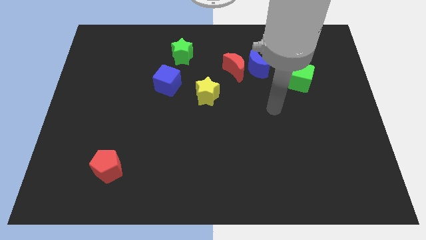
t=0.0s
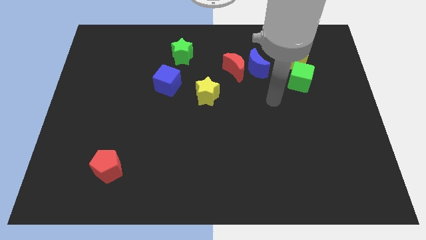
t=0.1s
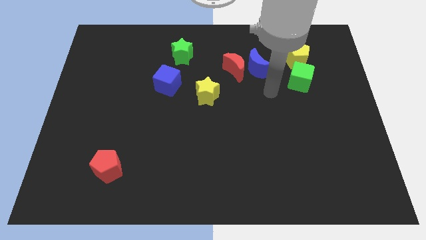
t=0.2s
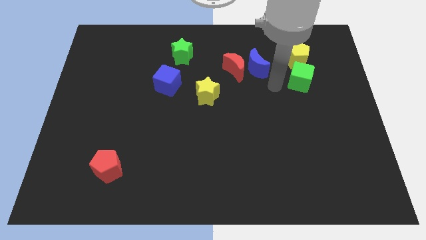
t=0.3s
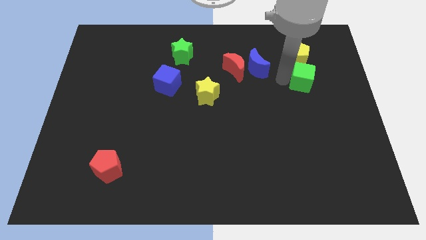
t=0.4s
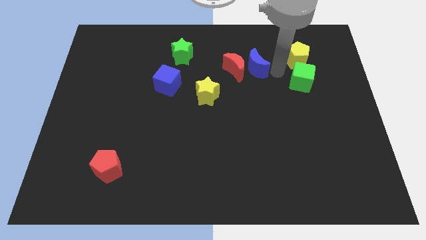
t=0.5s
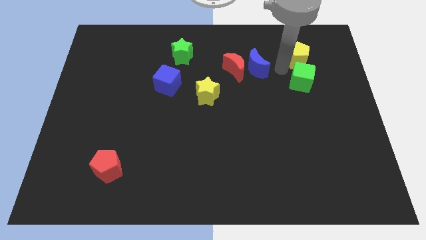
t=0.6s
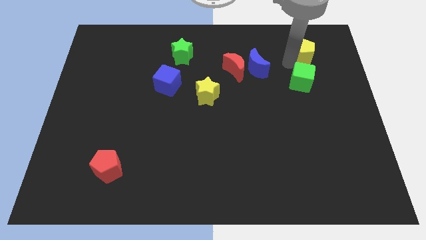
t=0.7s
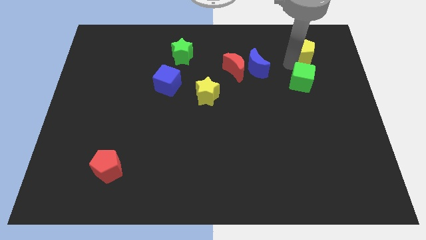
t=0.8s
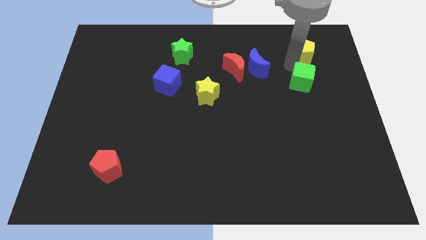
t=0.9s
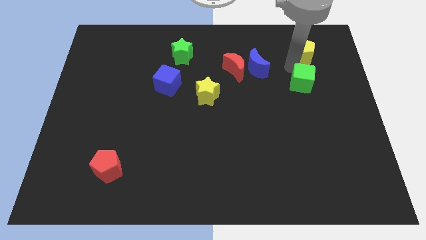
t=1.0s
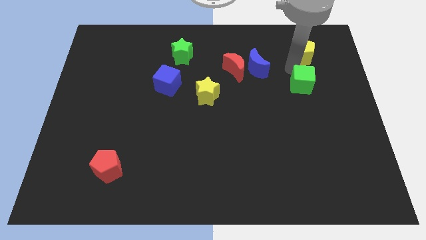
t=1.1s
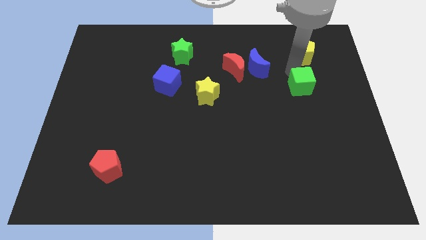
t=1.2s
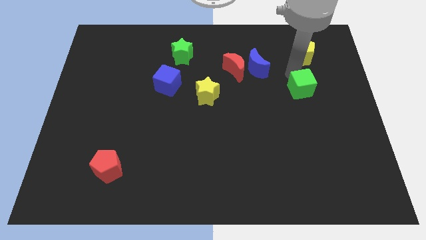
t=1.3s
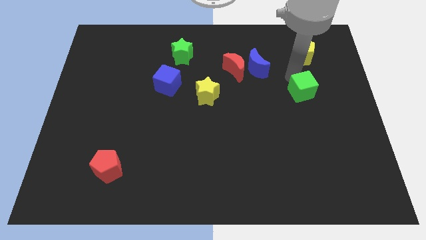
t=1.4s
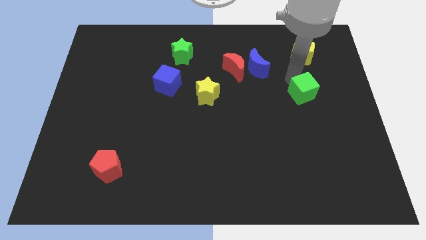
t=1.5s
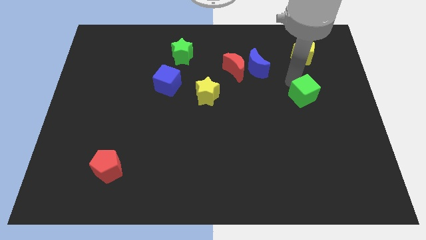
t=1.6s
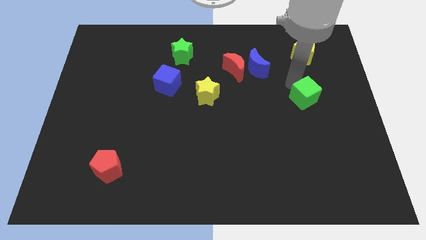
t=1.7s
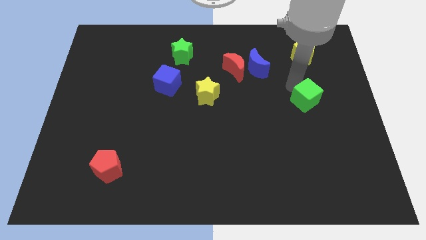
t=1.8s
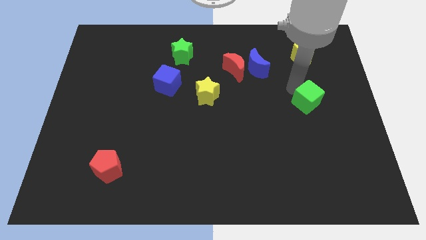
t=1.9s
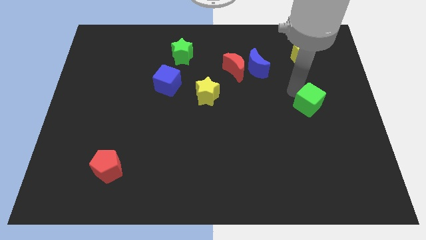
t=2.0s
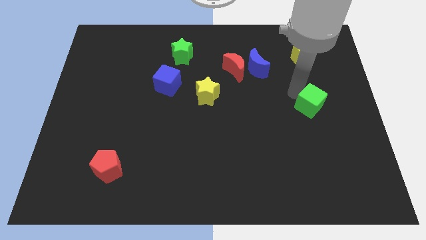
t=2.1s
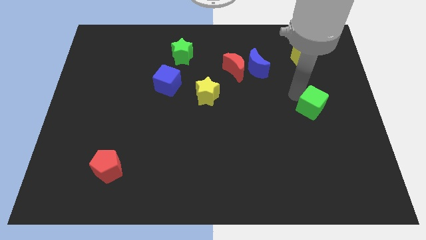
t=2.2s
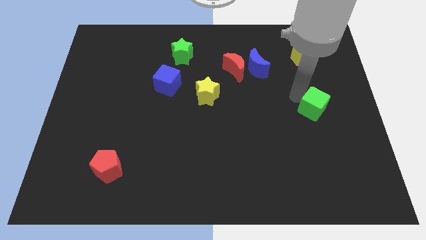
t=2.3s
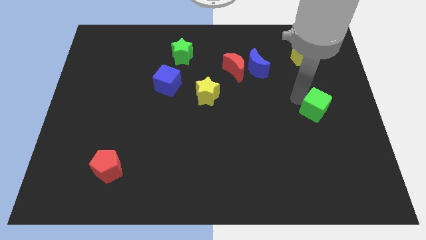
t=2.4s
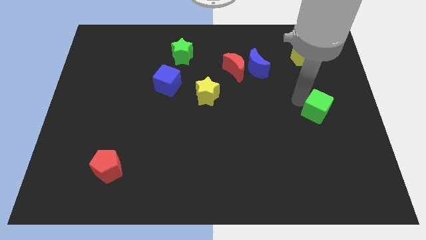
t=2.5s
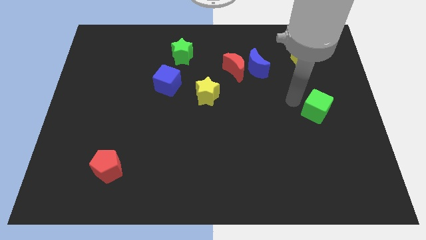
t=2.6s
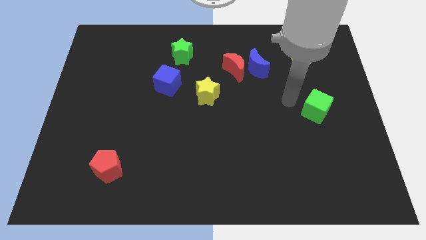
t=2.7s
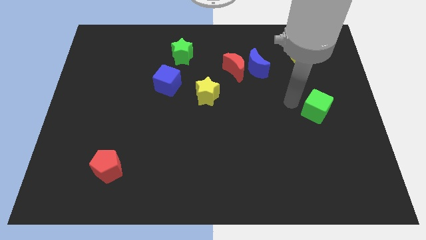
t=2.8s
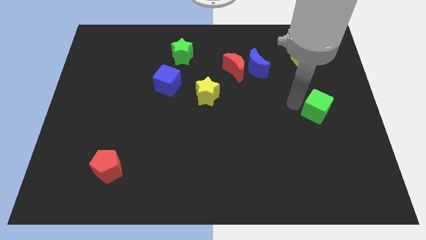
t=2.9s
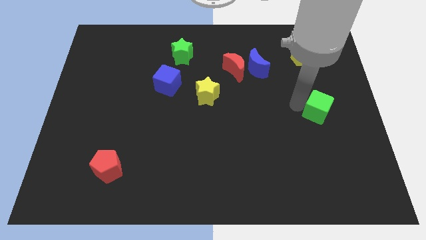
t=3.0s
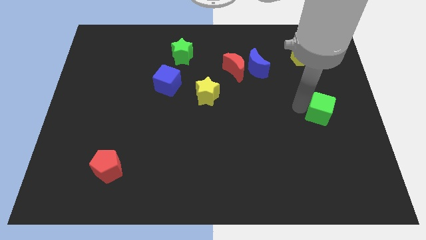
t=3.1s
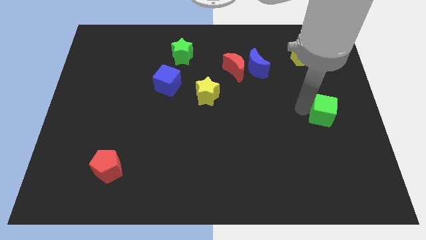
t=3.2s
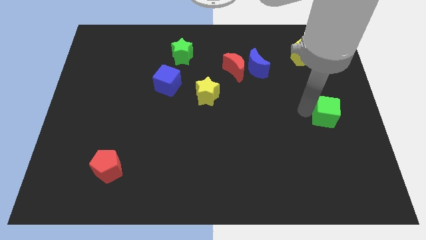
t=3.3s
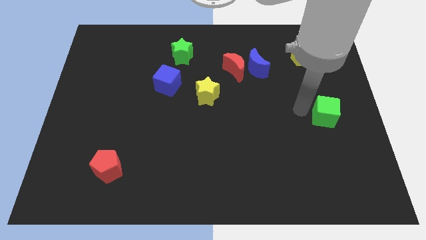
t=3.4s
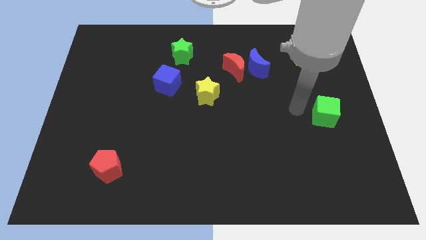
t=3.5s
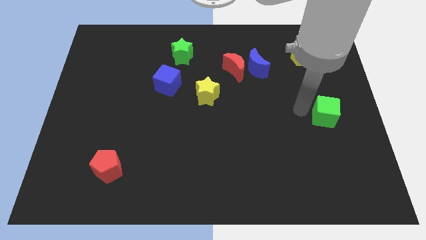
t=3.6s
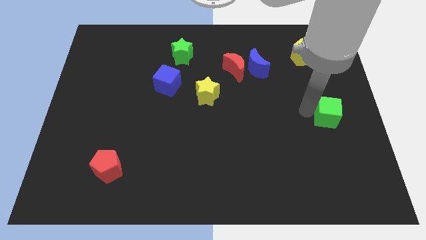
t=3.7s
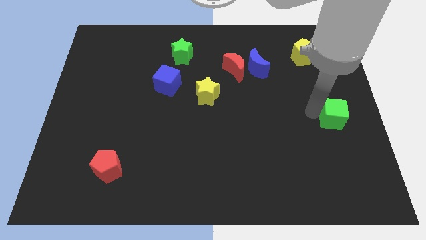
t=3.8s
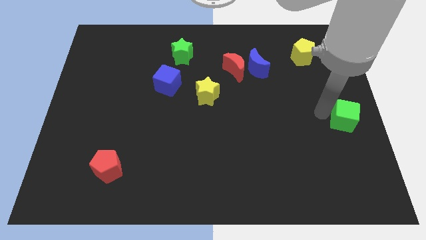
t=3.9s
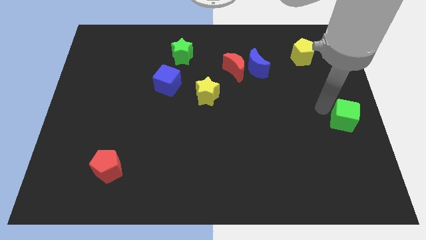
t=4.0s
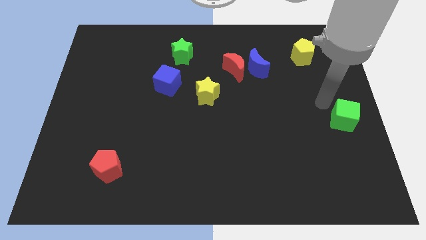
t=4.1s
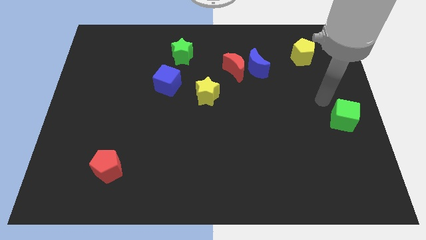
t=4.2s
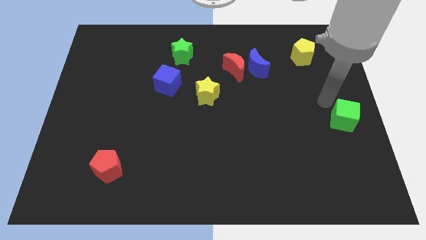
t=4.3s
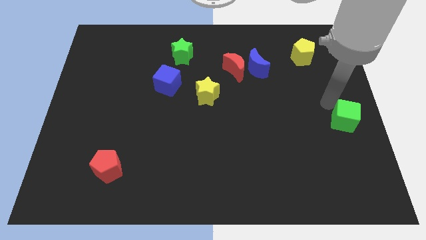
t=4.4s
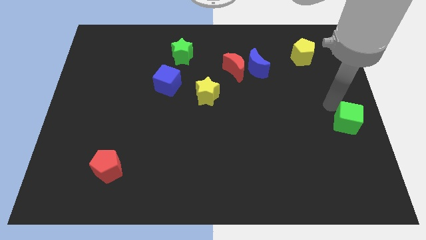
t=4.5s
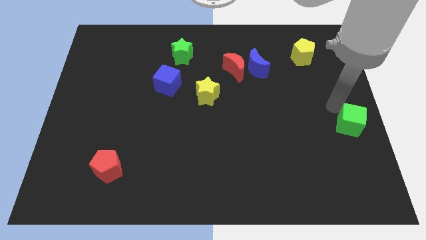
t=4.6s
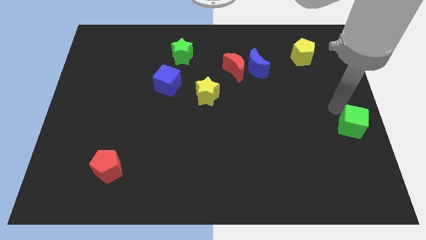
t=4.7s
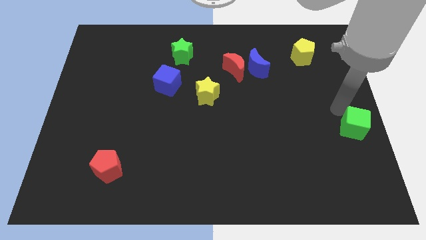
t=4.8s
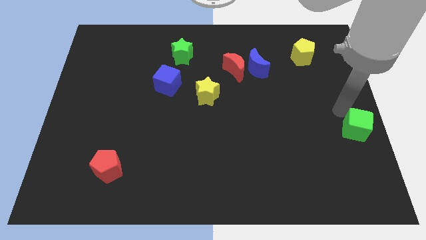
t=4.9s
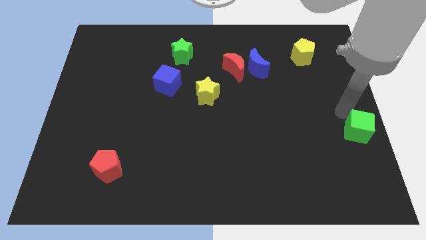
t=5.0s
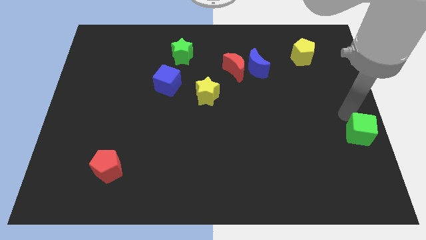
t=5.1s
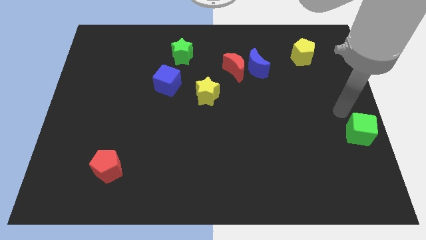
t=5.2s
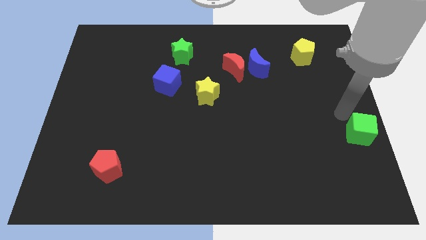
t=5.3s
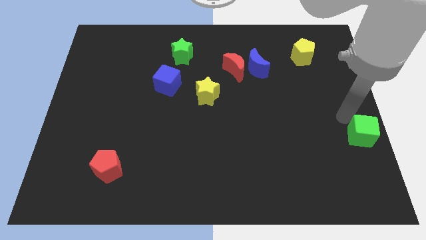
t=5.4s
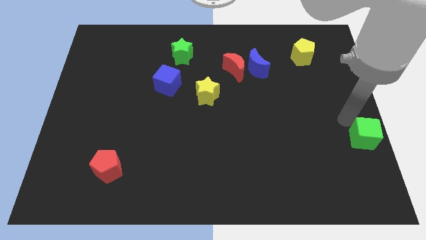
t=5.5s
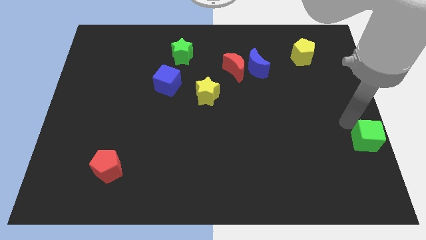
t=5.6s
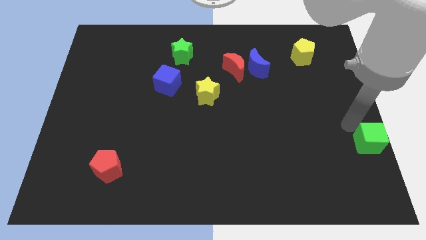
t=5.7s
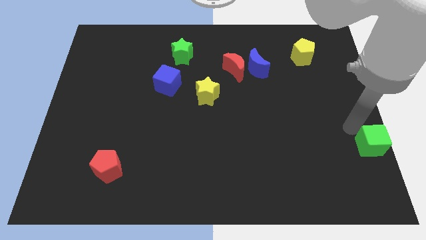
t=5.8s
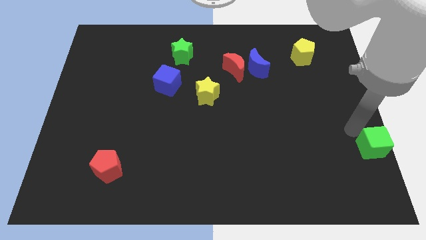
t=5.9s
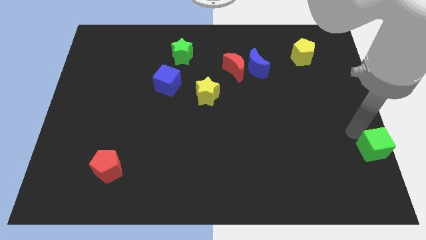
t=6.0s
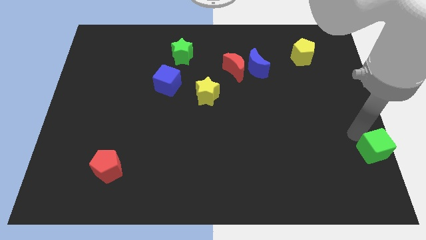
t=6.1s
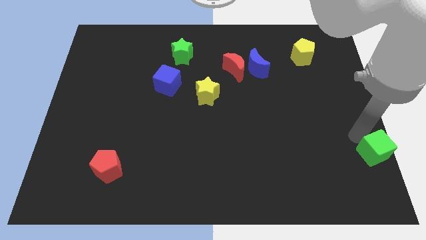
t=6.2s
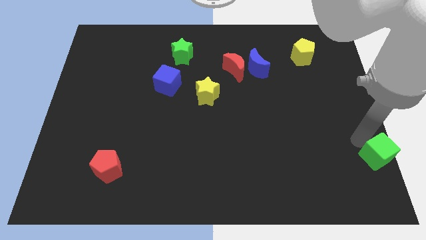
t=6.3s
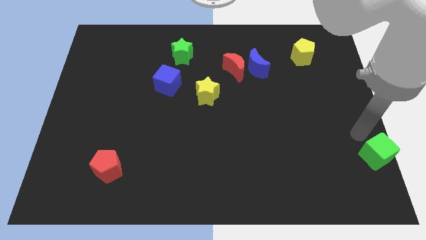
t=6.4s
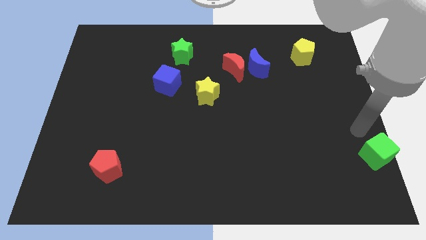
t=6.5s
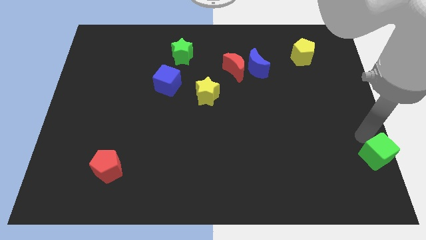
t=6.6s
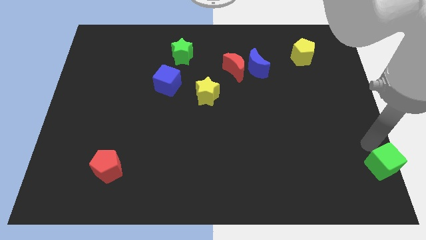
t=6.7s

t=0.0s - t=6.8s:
move the green cube to the bottom right

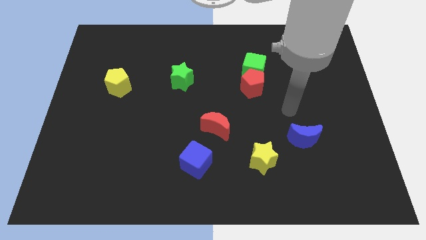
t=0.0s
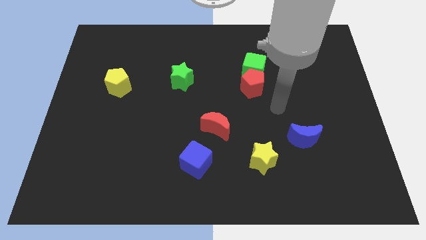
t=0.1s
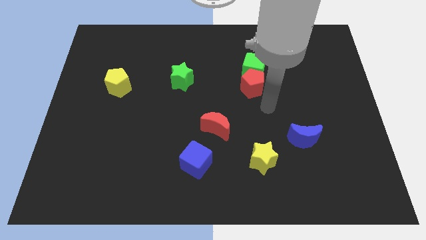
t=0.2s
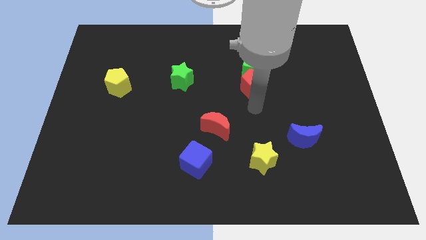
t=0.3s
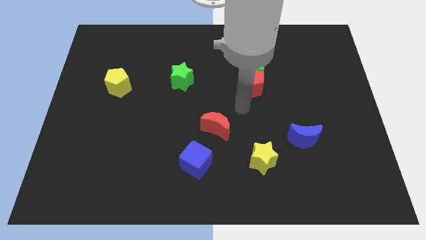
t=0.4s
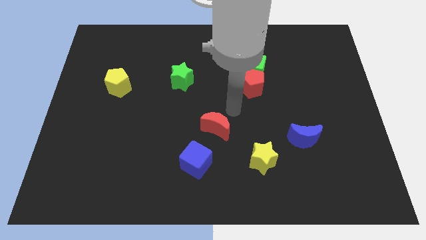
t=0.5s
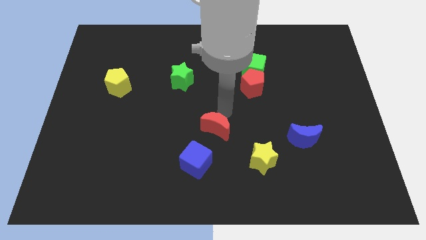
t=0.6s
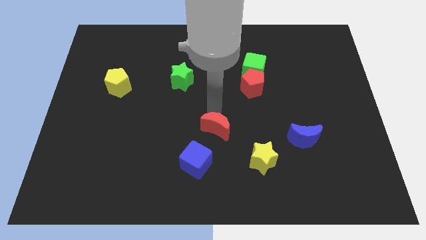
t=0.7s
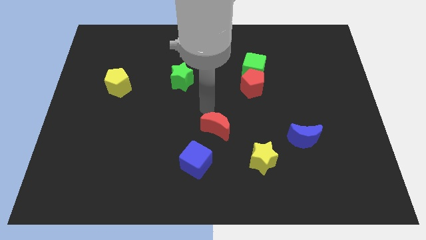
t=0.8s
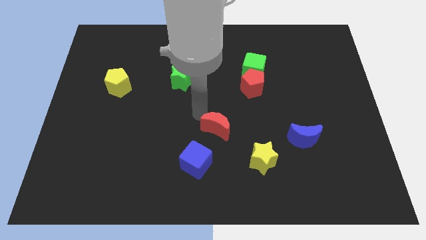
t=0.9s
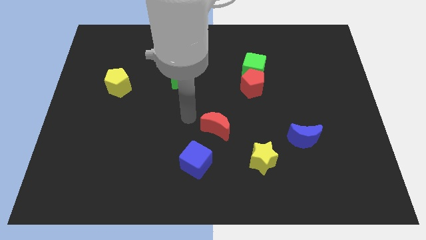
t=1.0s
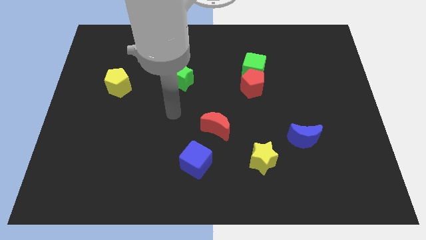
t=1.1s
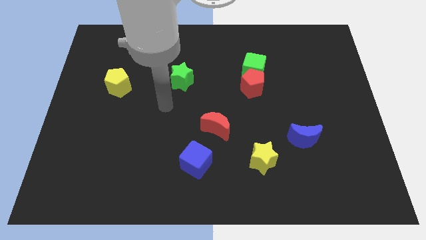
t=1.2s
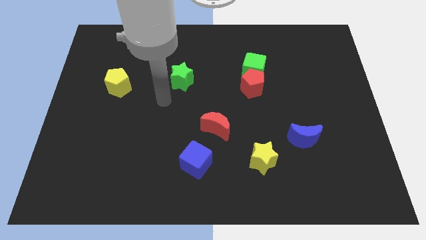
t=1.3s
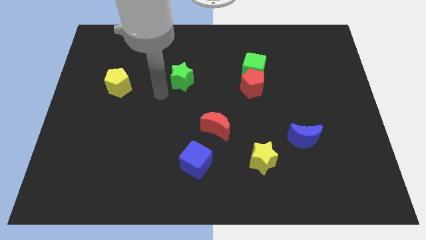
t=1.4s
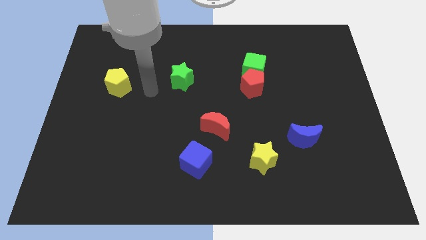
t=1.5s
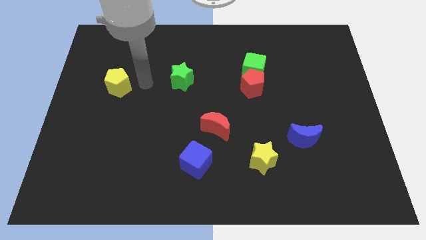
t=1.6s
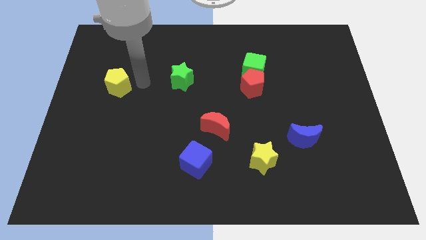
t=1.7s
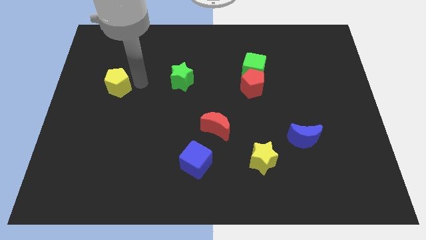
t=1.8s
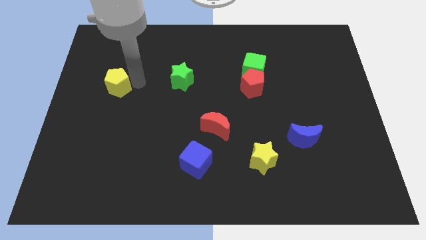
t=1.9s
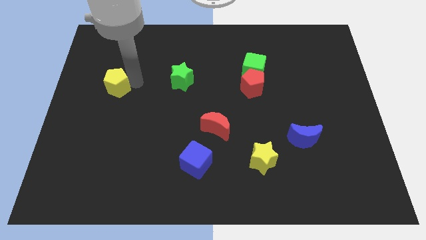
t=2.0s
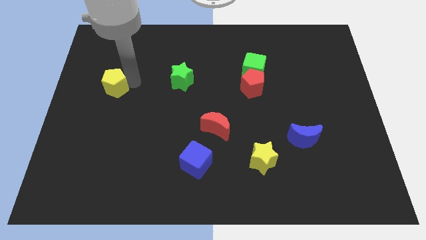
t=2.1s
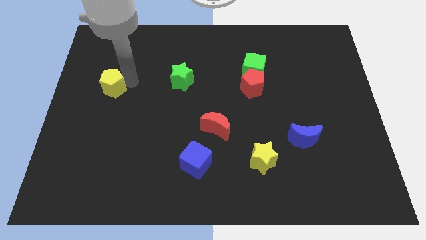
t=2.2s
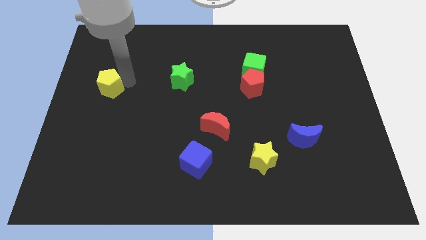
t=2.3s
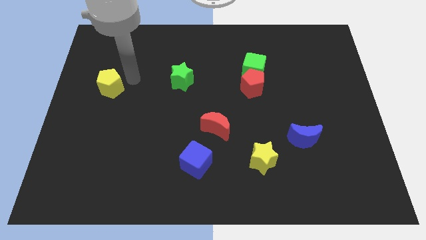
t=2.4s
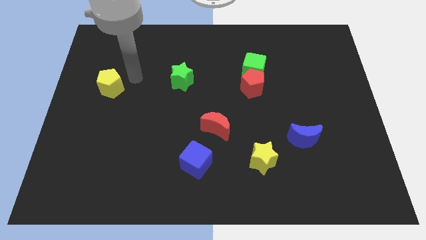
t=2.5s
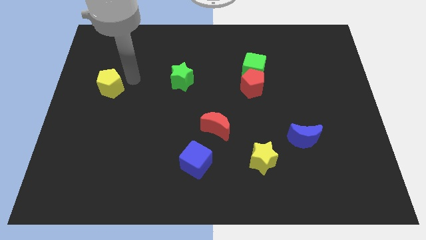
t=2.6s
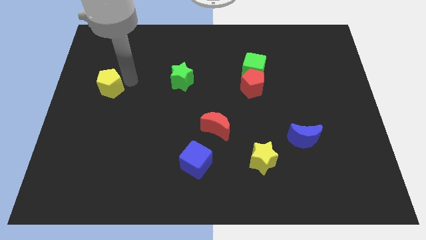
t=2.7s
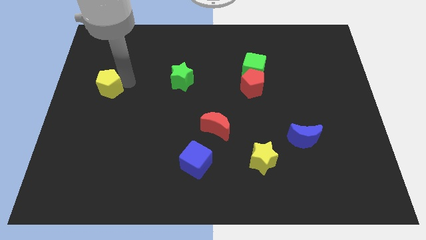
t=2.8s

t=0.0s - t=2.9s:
move the yellow pentagon to the center left
